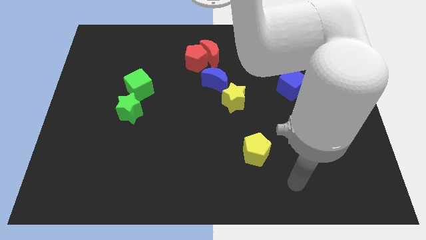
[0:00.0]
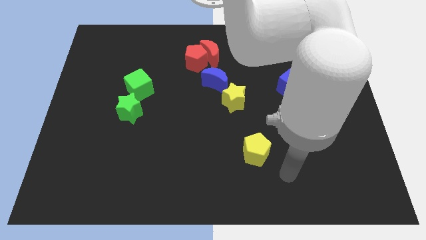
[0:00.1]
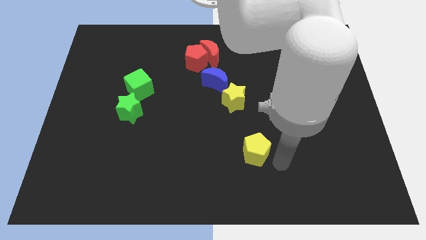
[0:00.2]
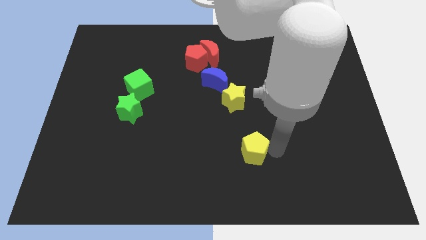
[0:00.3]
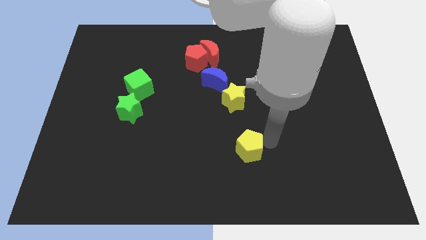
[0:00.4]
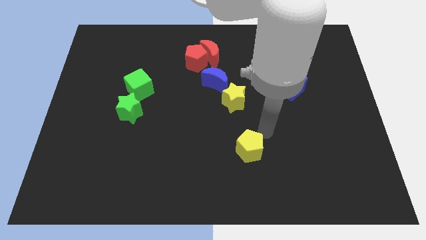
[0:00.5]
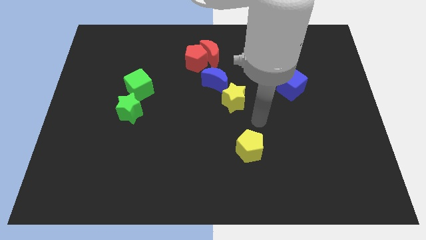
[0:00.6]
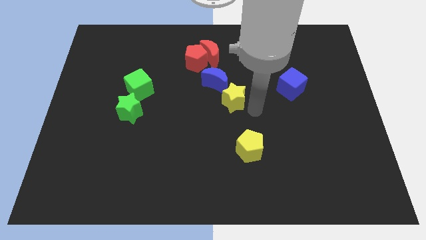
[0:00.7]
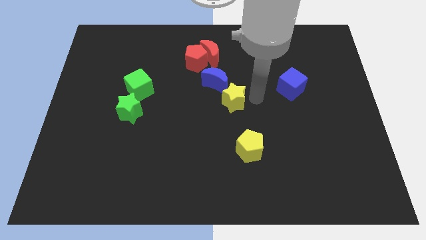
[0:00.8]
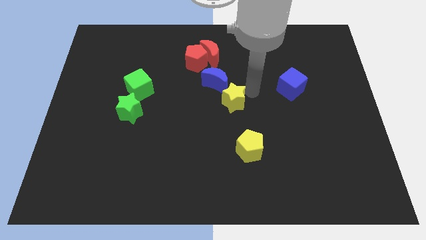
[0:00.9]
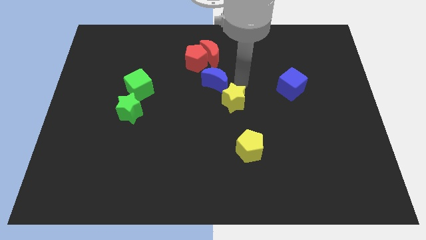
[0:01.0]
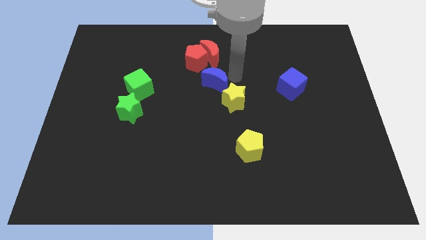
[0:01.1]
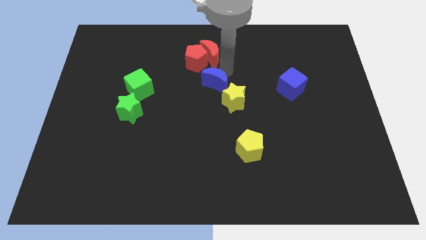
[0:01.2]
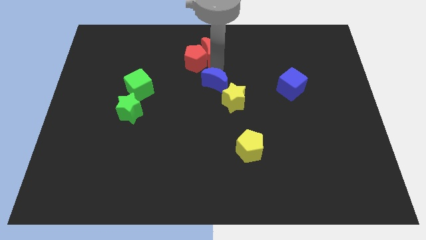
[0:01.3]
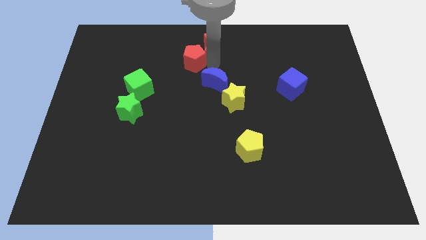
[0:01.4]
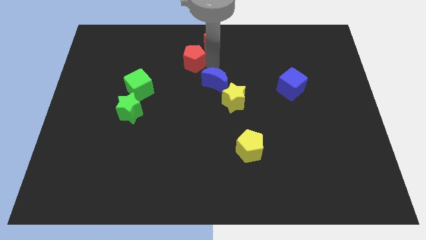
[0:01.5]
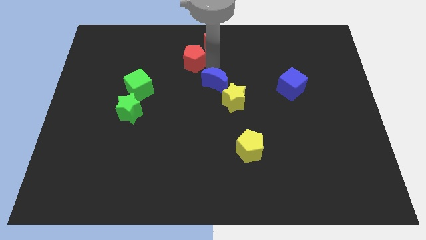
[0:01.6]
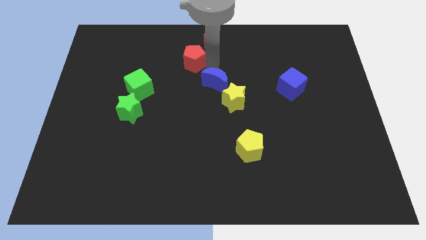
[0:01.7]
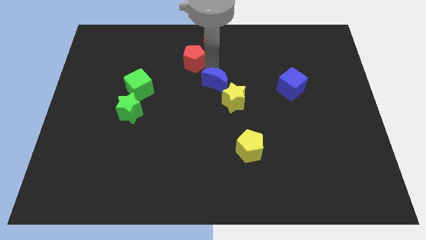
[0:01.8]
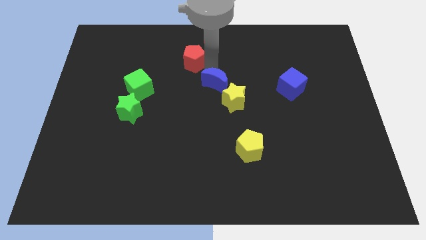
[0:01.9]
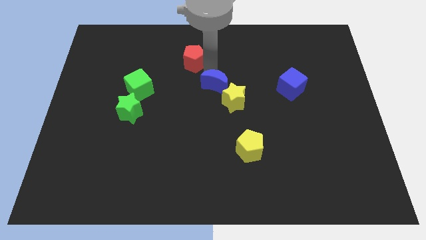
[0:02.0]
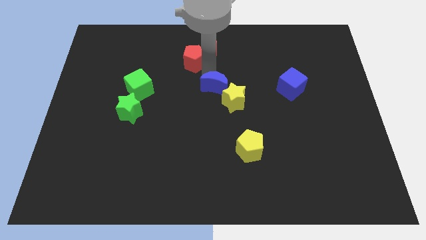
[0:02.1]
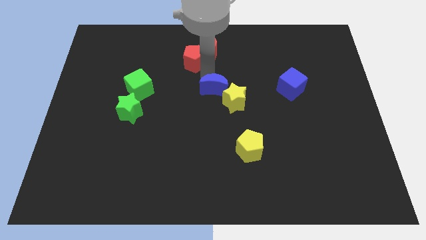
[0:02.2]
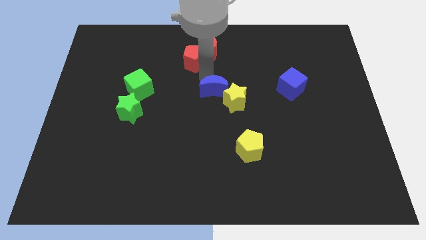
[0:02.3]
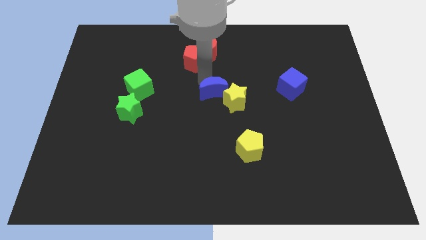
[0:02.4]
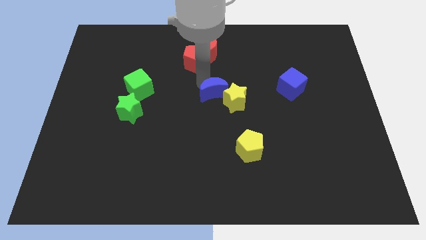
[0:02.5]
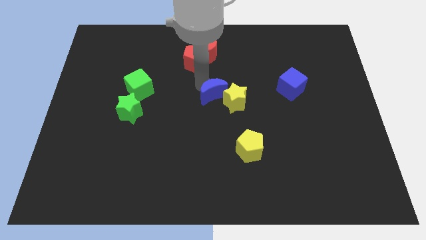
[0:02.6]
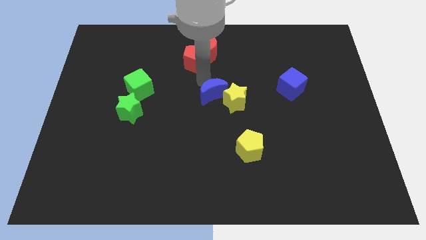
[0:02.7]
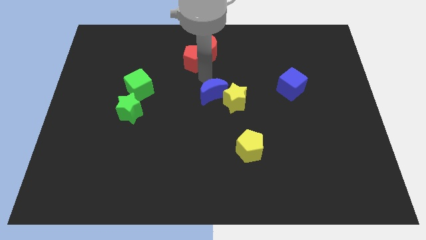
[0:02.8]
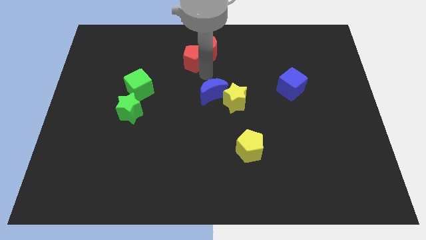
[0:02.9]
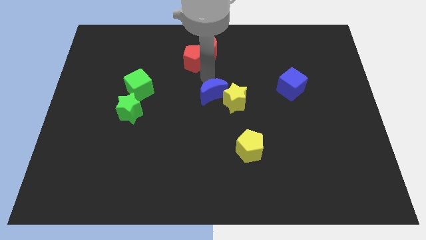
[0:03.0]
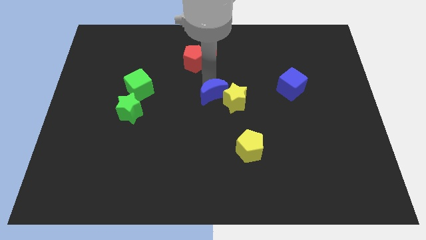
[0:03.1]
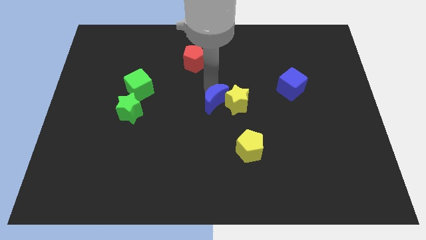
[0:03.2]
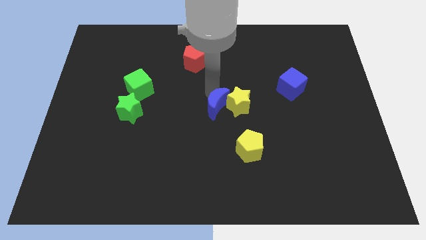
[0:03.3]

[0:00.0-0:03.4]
slightly push the blue moon downwards

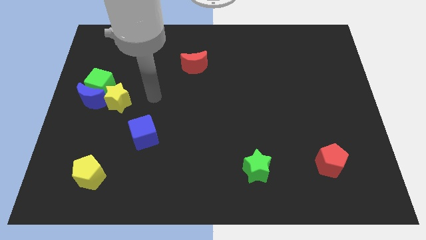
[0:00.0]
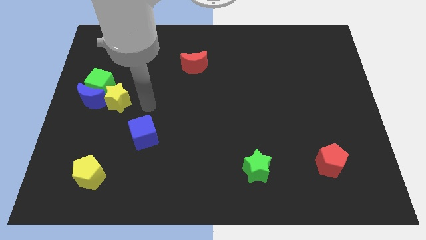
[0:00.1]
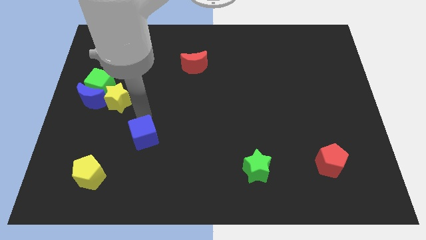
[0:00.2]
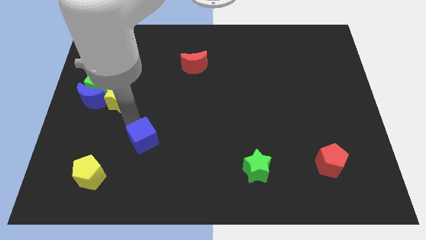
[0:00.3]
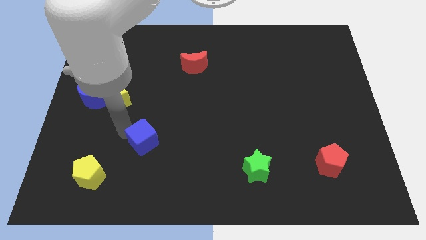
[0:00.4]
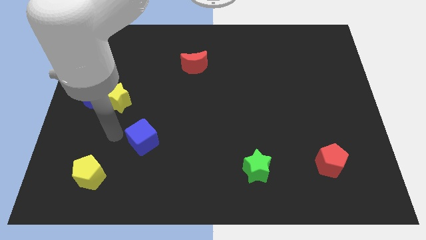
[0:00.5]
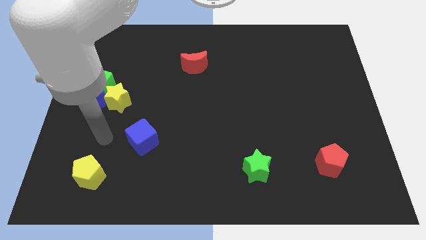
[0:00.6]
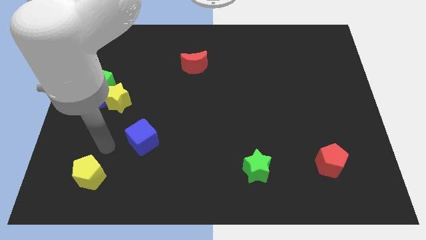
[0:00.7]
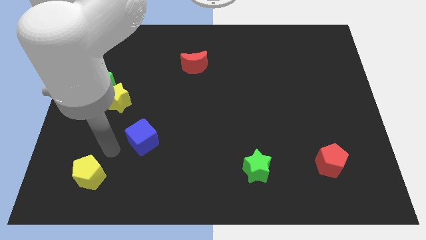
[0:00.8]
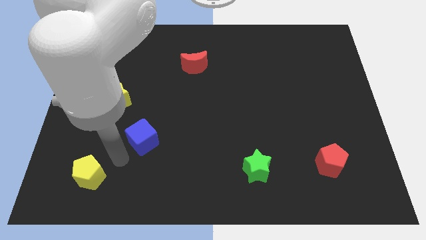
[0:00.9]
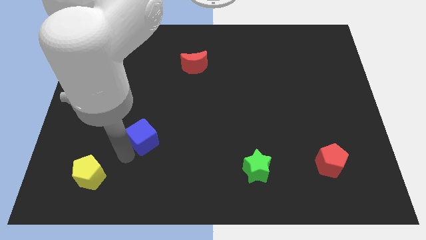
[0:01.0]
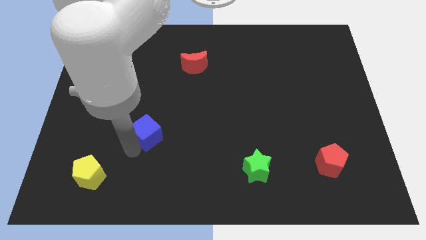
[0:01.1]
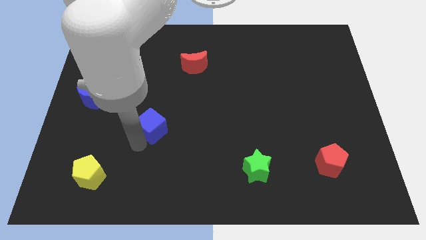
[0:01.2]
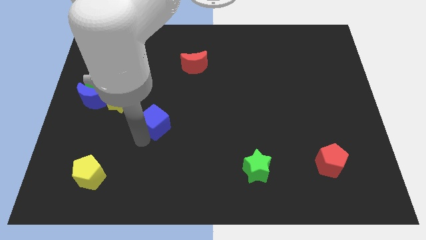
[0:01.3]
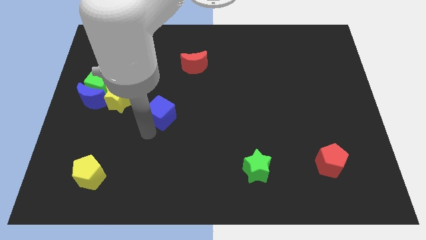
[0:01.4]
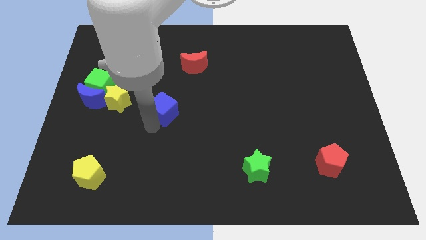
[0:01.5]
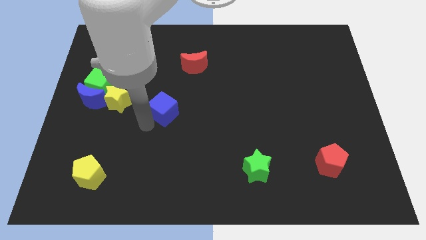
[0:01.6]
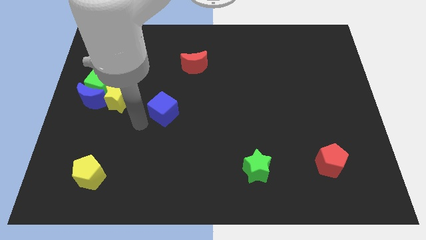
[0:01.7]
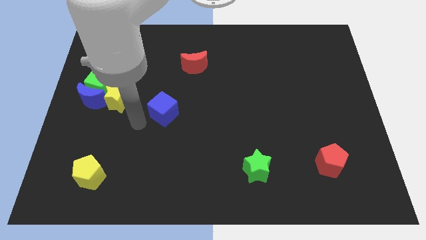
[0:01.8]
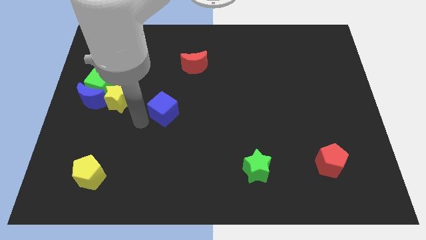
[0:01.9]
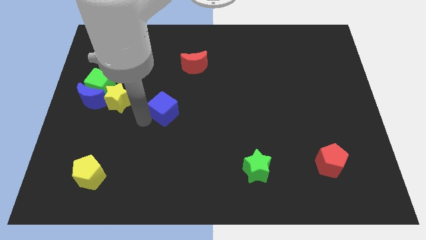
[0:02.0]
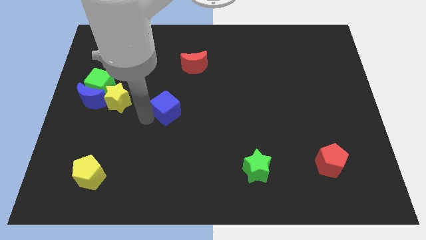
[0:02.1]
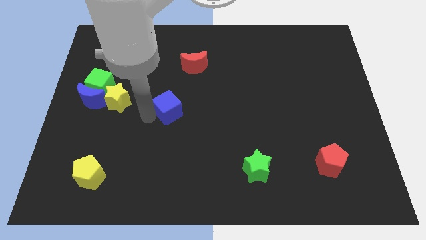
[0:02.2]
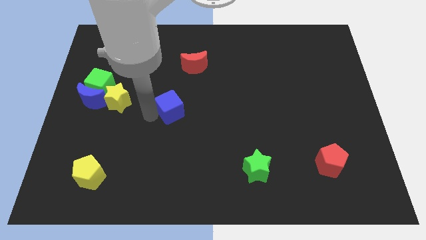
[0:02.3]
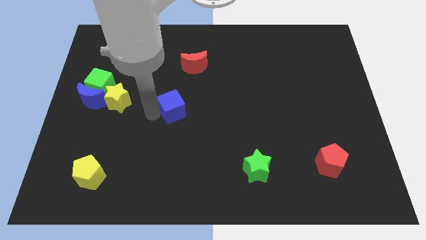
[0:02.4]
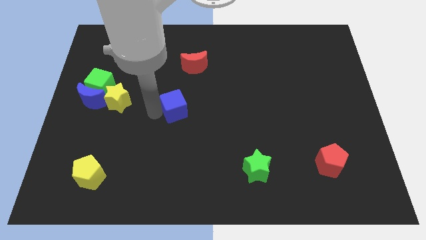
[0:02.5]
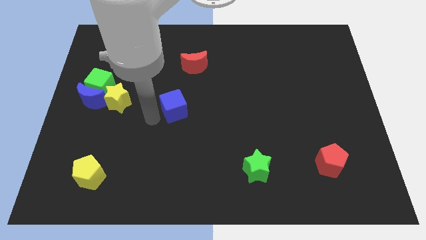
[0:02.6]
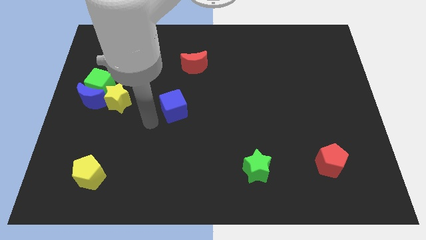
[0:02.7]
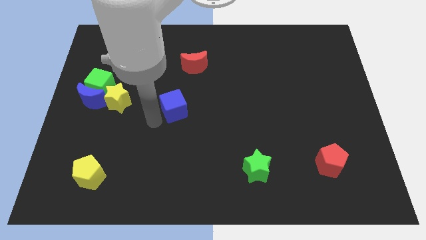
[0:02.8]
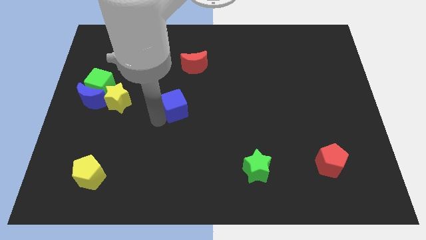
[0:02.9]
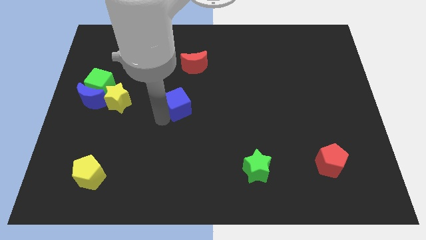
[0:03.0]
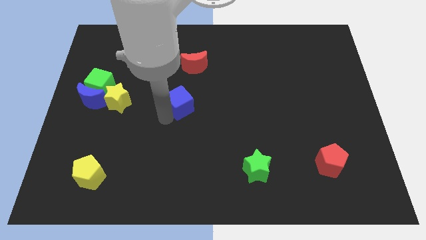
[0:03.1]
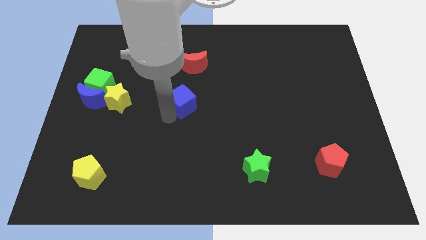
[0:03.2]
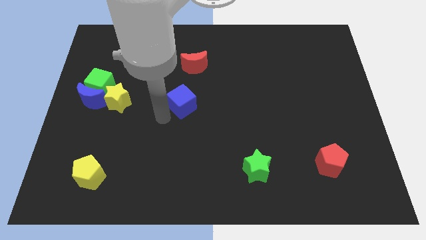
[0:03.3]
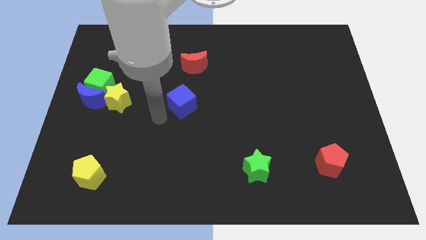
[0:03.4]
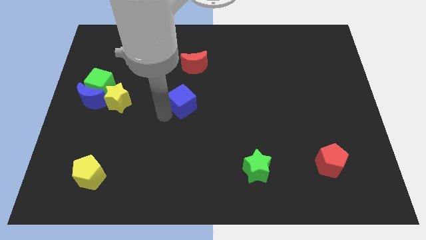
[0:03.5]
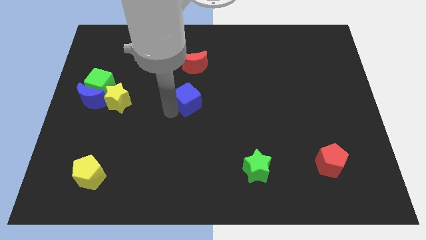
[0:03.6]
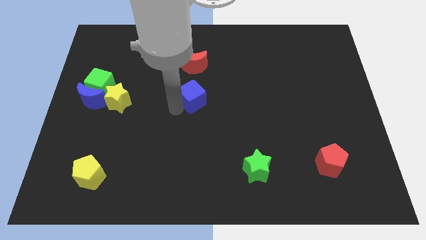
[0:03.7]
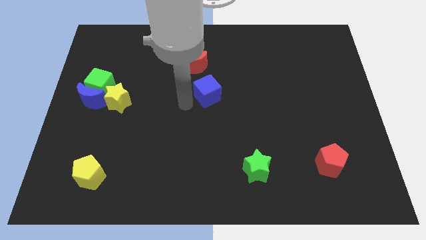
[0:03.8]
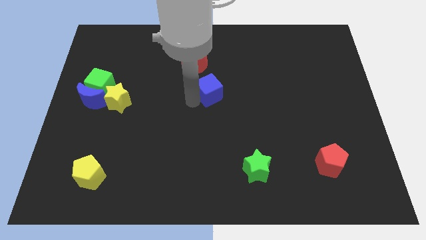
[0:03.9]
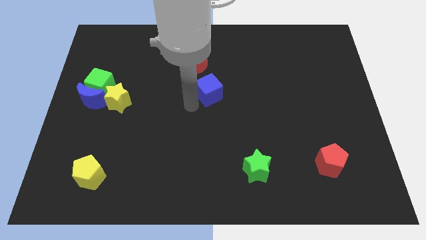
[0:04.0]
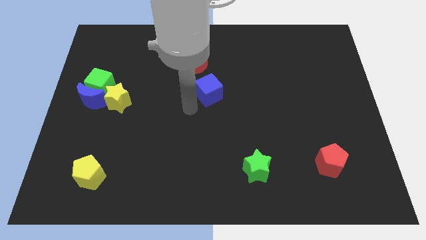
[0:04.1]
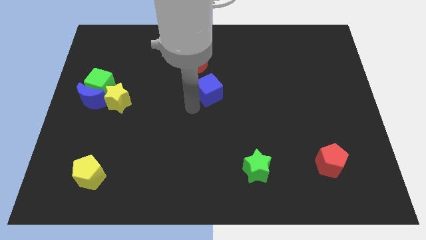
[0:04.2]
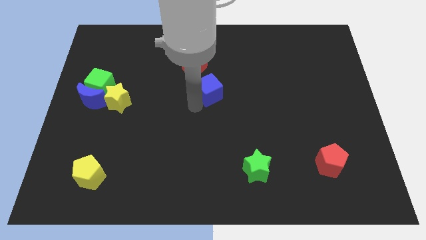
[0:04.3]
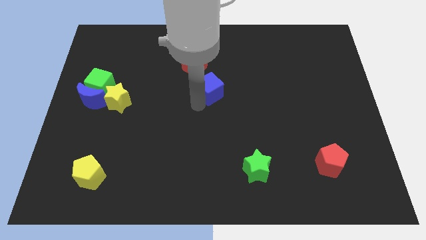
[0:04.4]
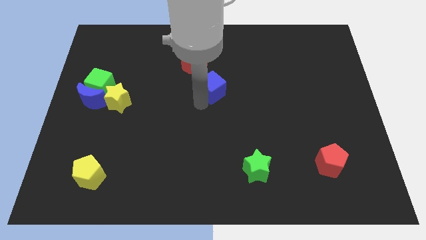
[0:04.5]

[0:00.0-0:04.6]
move the blue cube upwards and to the right diagonally

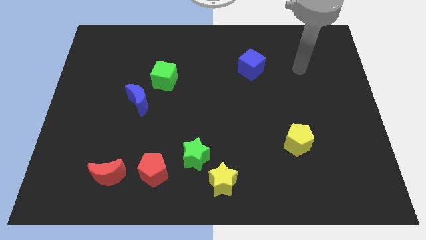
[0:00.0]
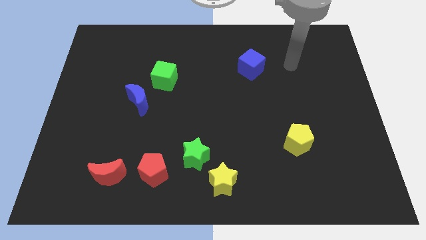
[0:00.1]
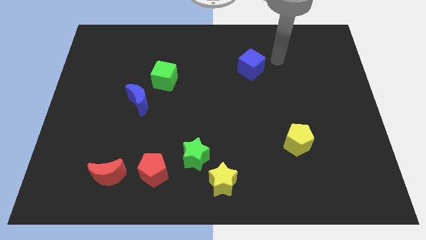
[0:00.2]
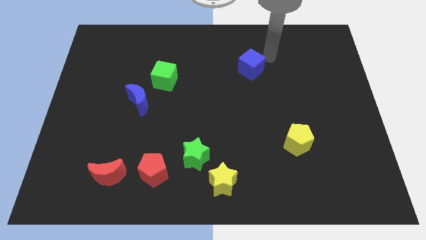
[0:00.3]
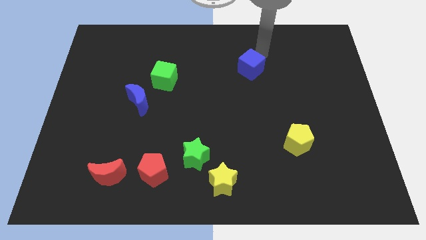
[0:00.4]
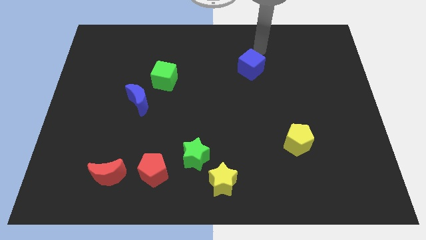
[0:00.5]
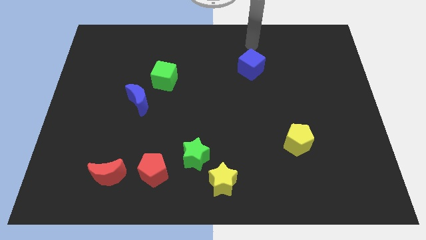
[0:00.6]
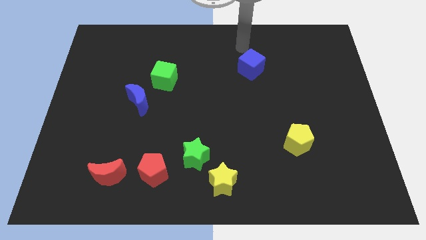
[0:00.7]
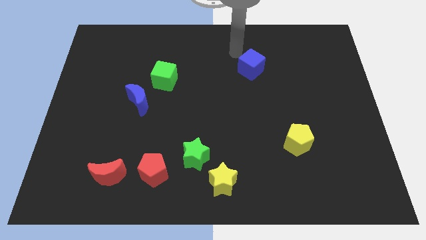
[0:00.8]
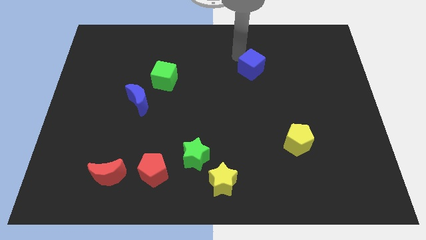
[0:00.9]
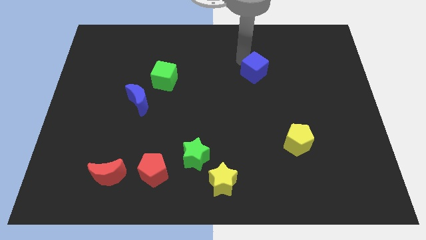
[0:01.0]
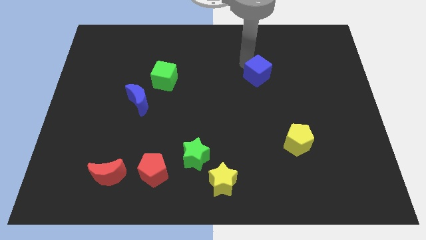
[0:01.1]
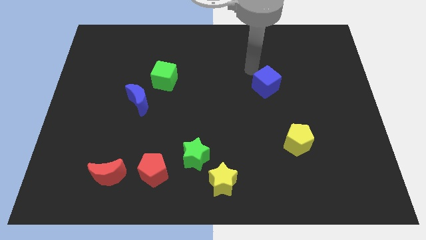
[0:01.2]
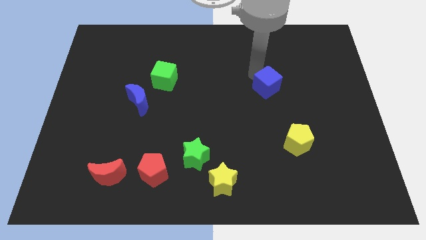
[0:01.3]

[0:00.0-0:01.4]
slide the blue cube down and to the right diagonally somewhat
